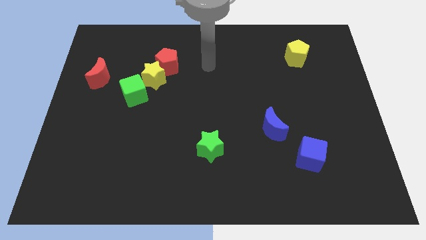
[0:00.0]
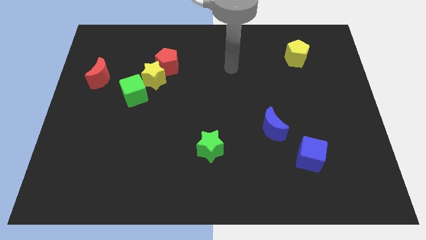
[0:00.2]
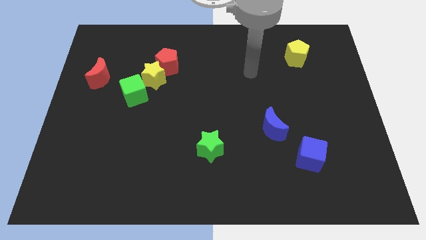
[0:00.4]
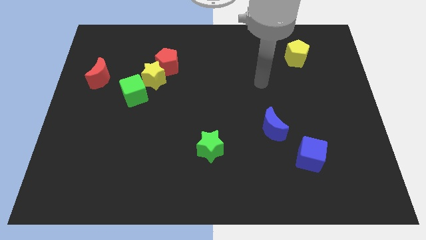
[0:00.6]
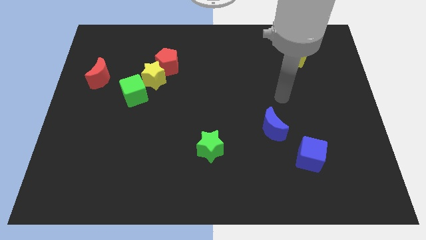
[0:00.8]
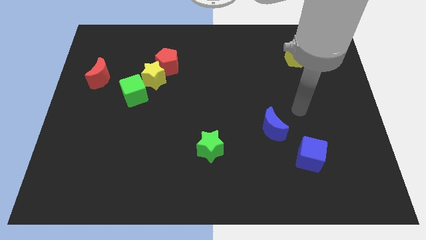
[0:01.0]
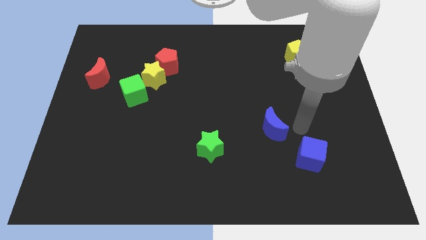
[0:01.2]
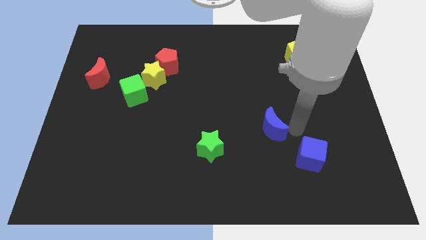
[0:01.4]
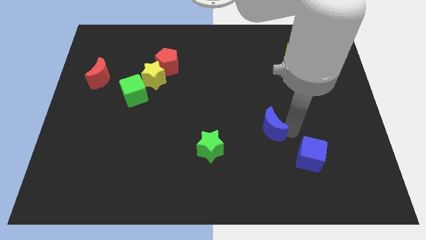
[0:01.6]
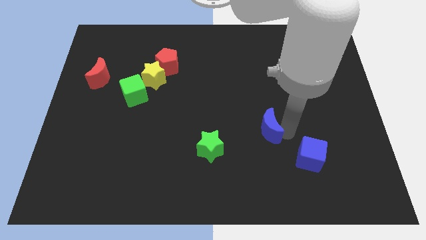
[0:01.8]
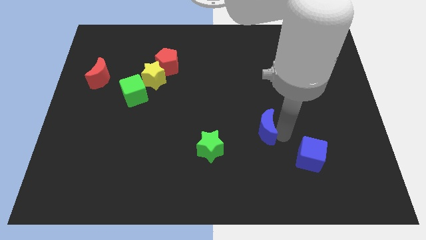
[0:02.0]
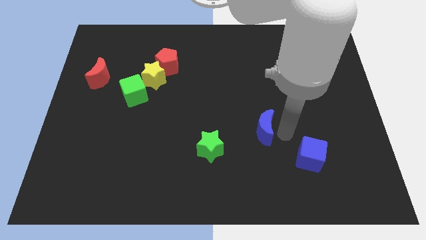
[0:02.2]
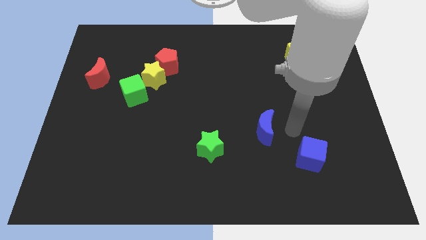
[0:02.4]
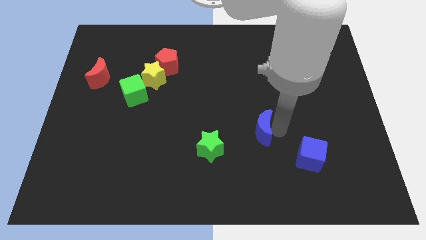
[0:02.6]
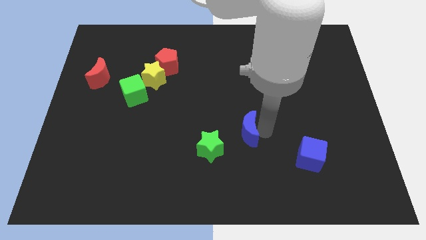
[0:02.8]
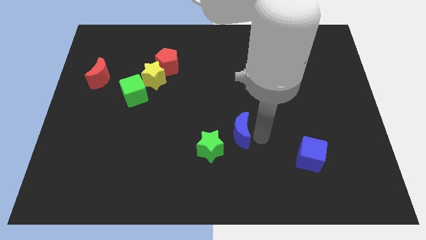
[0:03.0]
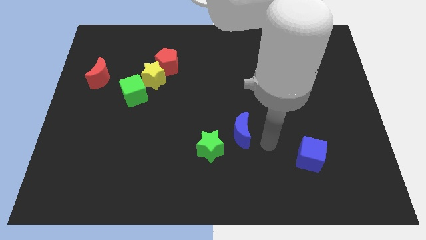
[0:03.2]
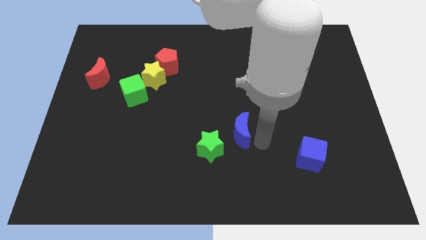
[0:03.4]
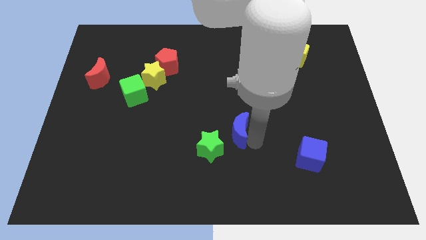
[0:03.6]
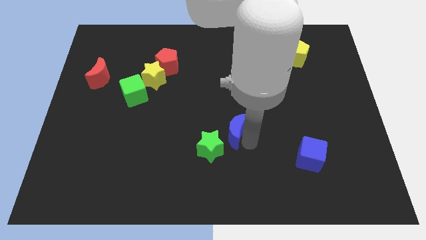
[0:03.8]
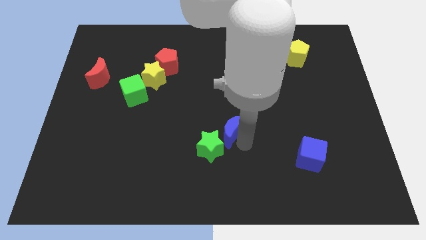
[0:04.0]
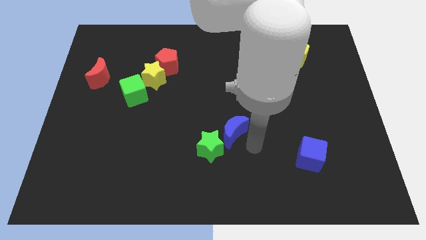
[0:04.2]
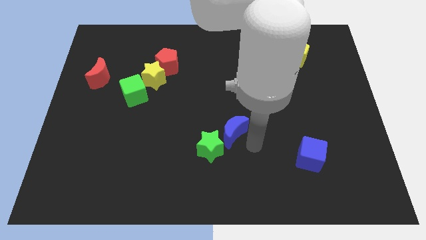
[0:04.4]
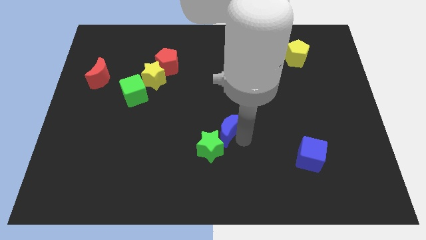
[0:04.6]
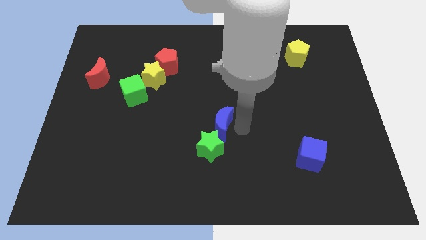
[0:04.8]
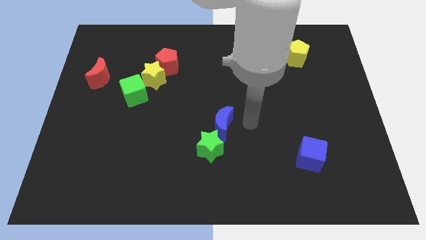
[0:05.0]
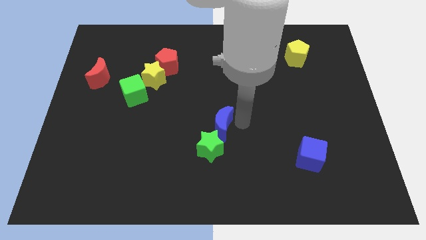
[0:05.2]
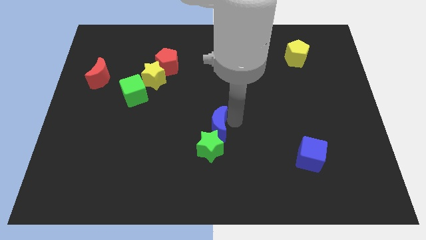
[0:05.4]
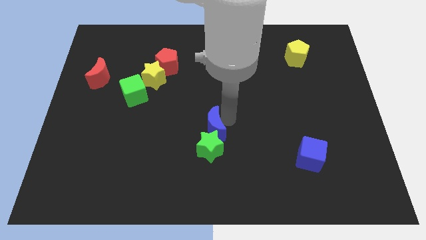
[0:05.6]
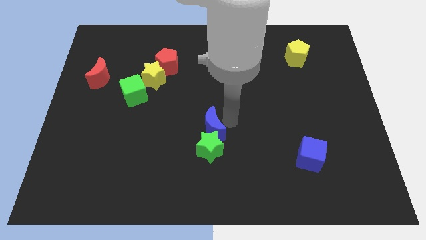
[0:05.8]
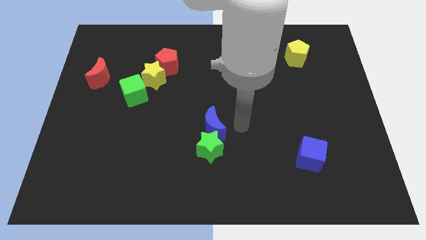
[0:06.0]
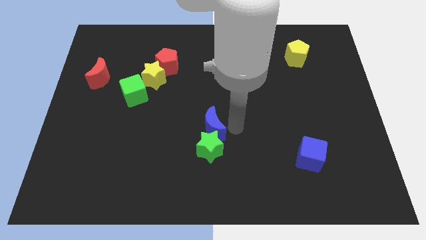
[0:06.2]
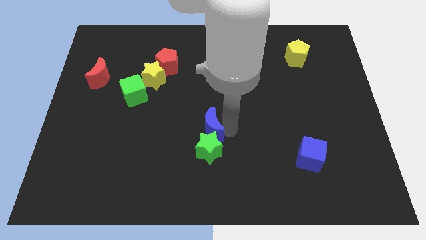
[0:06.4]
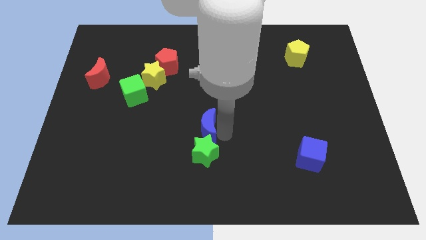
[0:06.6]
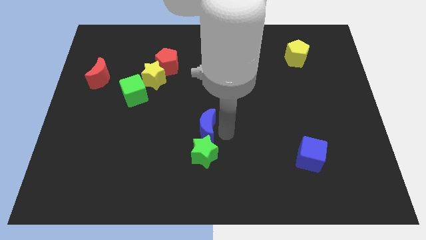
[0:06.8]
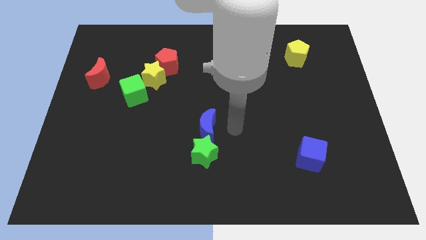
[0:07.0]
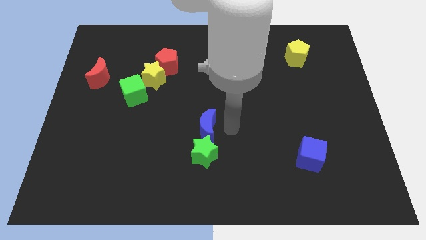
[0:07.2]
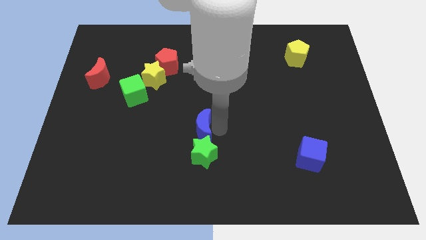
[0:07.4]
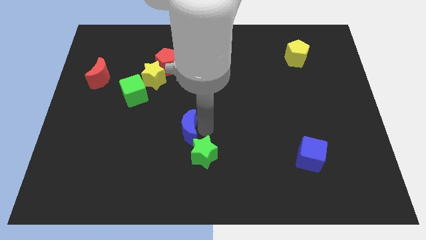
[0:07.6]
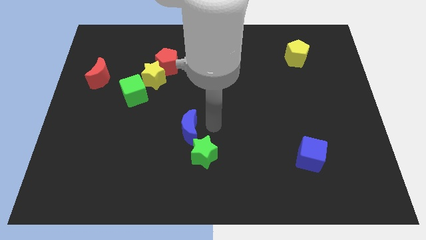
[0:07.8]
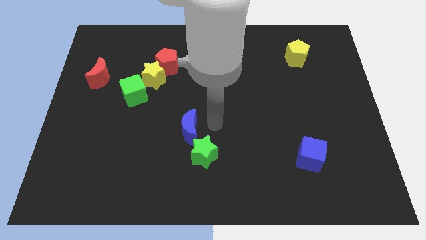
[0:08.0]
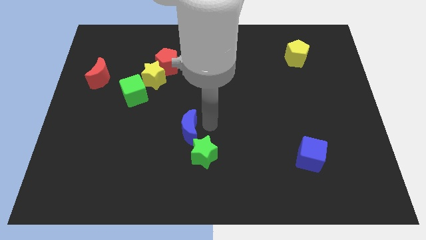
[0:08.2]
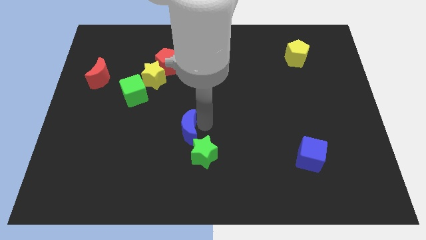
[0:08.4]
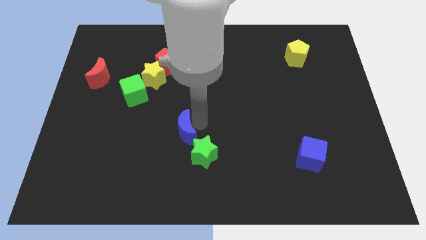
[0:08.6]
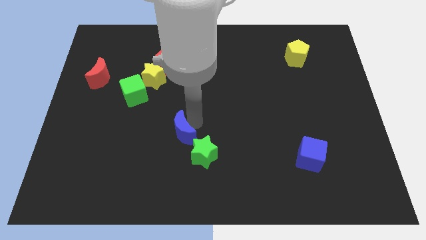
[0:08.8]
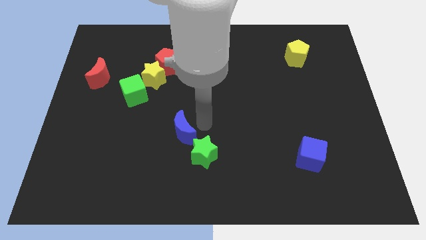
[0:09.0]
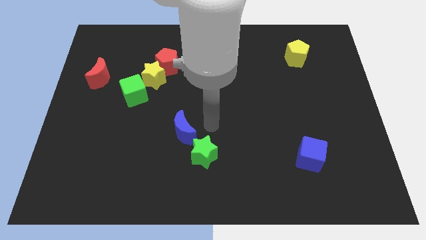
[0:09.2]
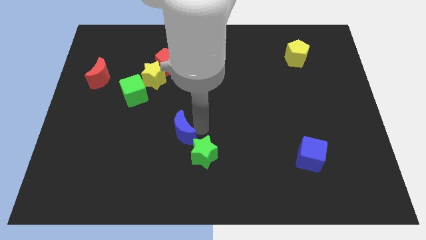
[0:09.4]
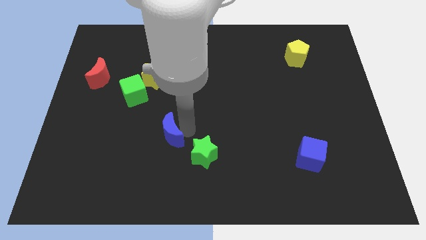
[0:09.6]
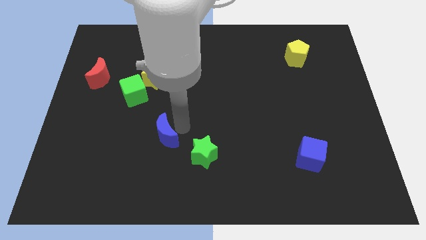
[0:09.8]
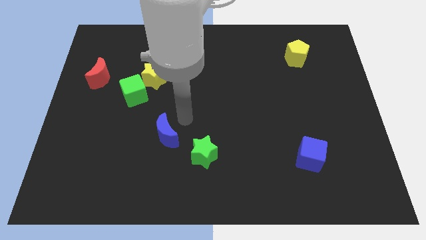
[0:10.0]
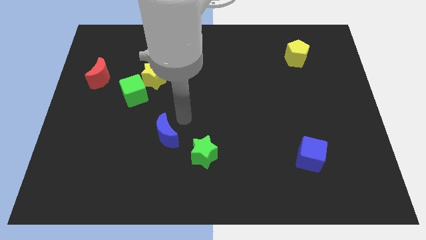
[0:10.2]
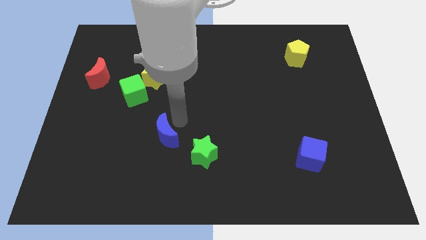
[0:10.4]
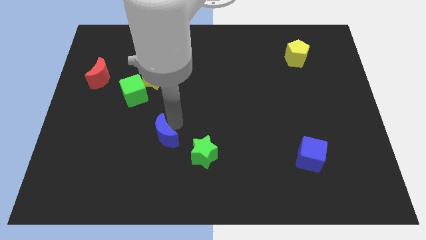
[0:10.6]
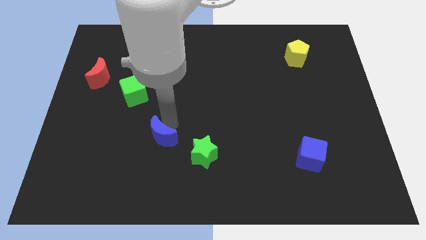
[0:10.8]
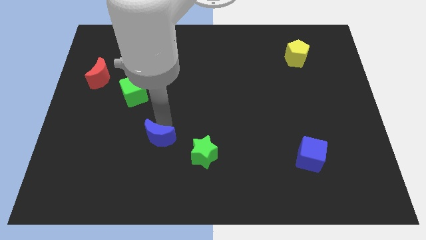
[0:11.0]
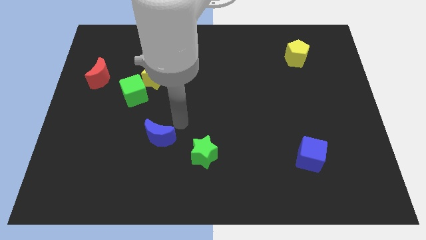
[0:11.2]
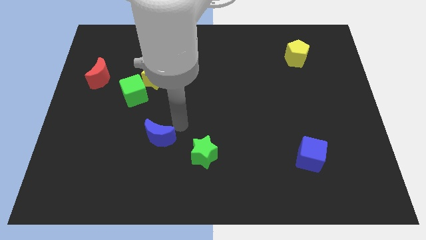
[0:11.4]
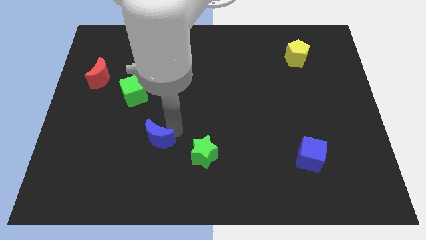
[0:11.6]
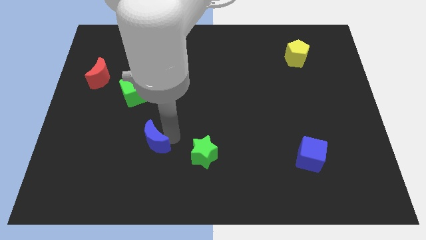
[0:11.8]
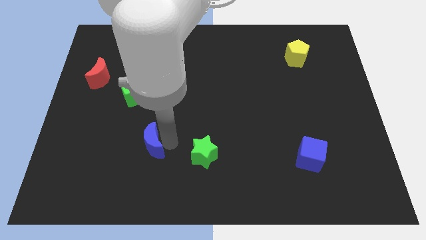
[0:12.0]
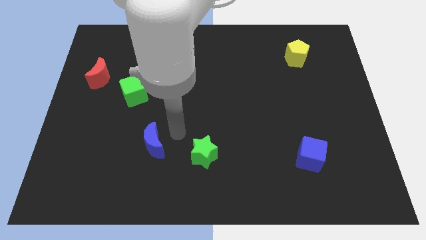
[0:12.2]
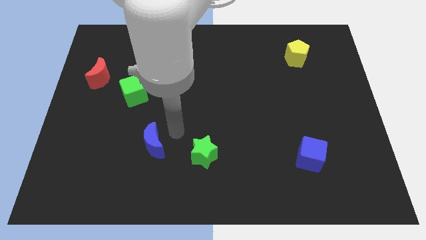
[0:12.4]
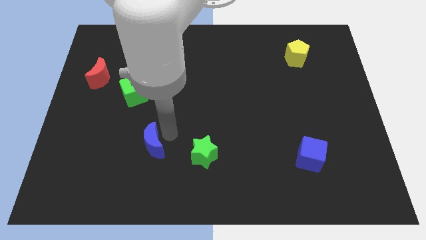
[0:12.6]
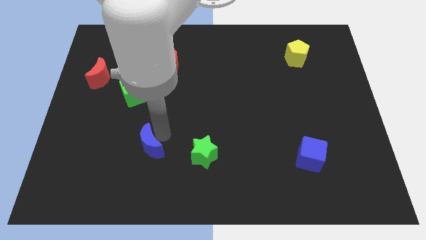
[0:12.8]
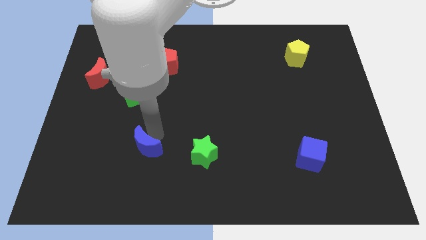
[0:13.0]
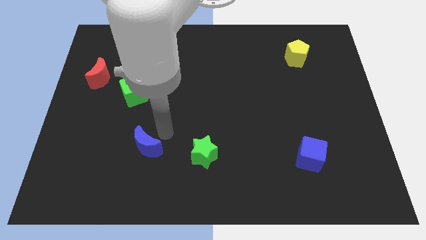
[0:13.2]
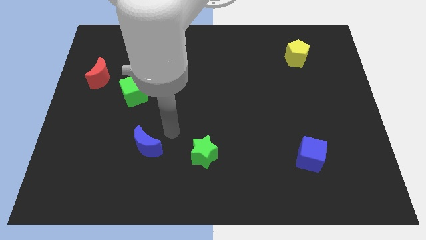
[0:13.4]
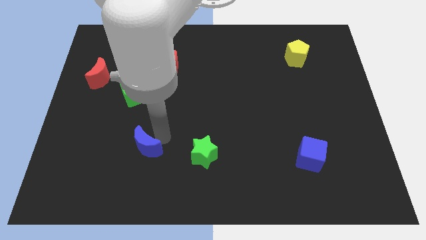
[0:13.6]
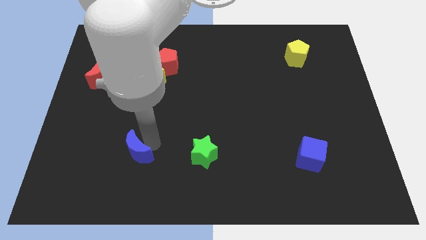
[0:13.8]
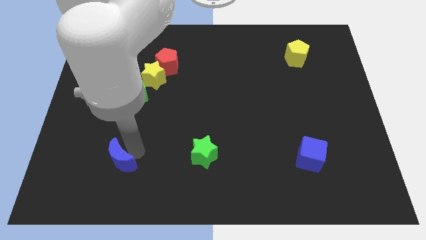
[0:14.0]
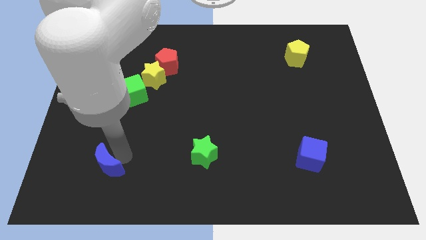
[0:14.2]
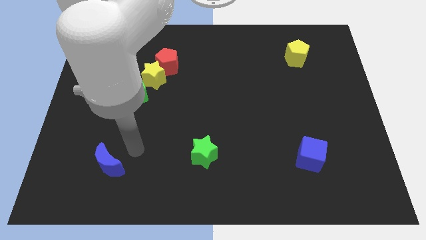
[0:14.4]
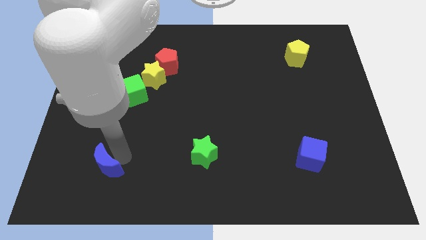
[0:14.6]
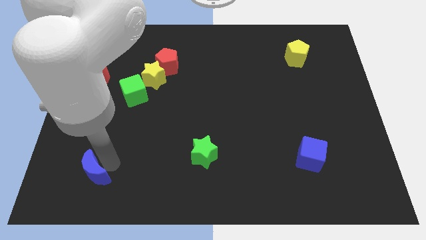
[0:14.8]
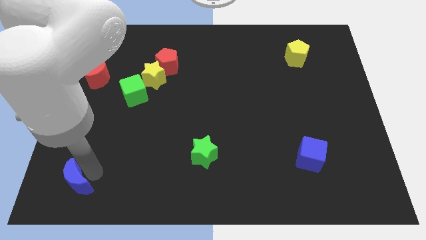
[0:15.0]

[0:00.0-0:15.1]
slide the blue moon to the bottom left corner
